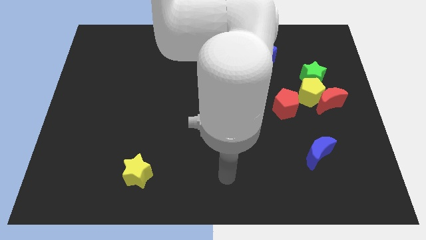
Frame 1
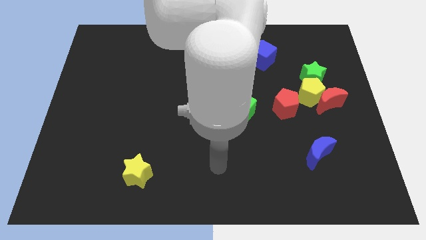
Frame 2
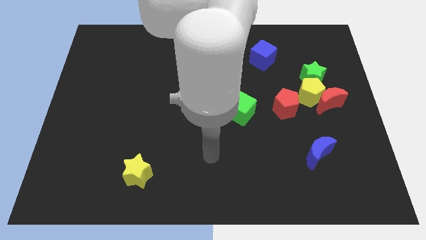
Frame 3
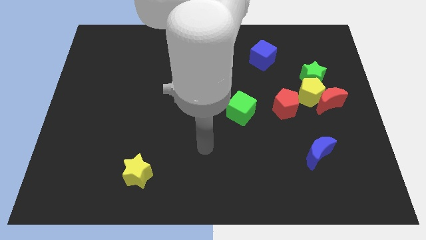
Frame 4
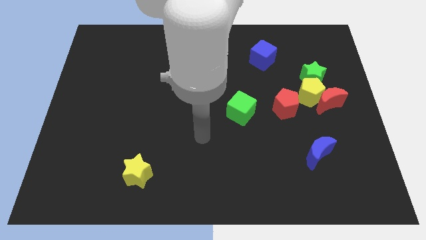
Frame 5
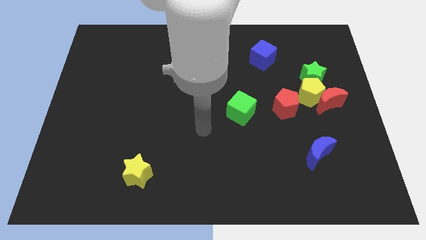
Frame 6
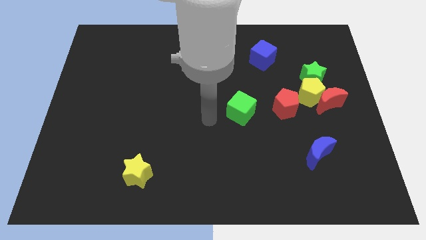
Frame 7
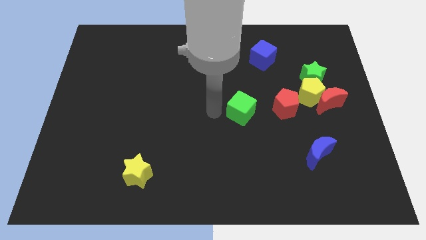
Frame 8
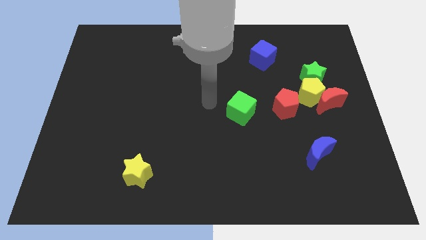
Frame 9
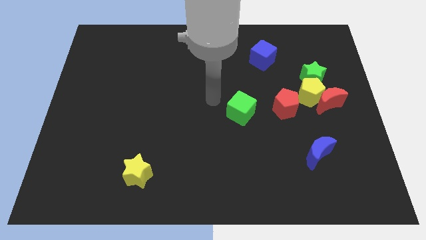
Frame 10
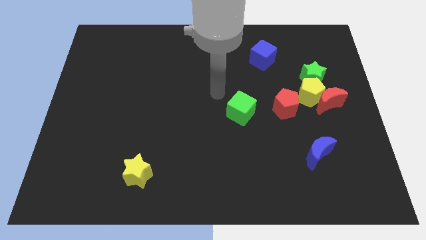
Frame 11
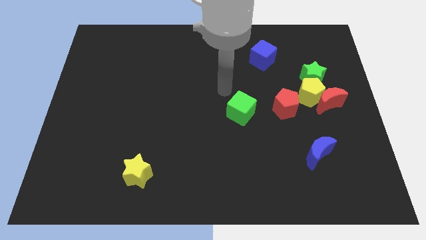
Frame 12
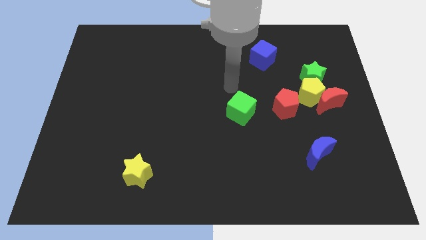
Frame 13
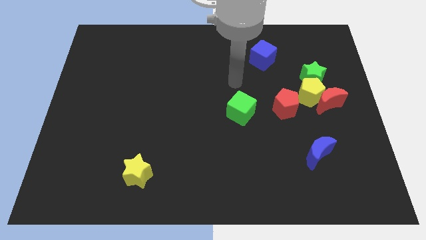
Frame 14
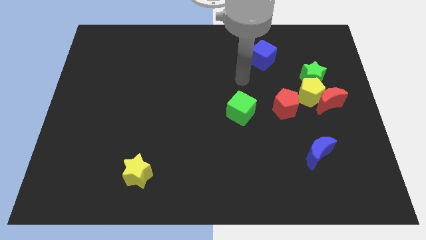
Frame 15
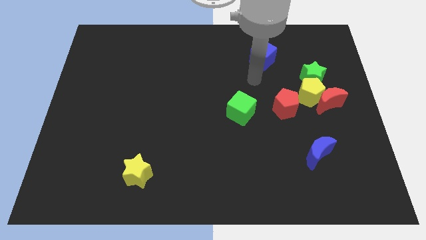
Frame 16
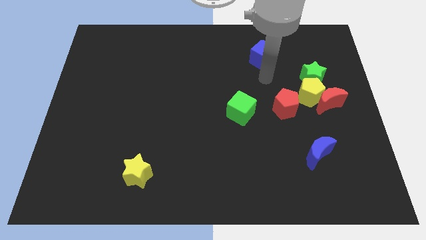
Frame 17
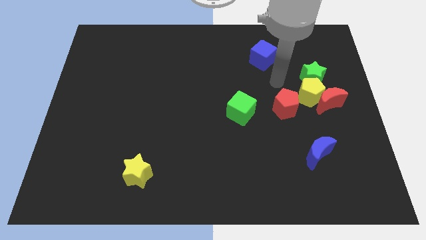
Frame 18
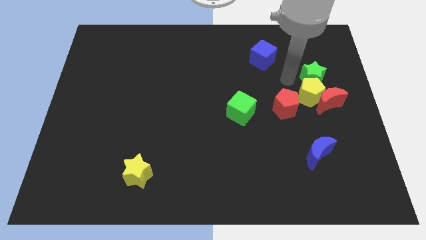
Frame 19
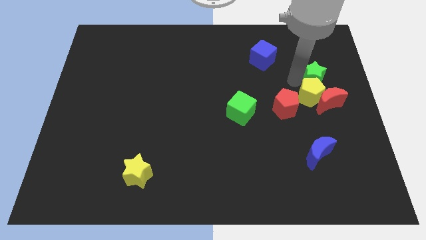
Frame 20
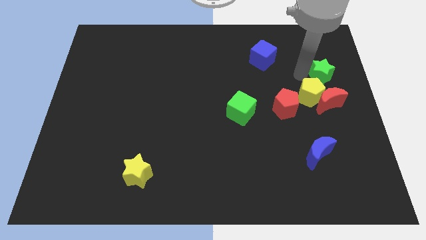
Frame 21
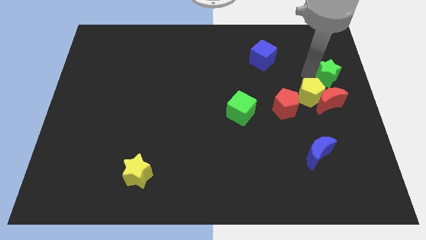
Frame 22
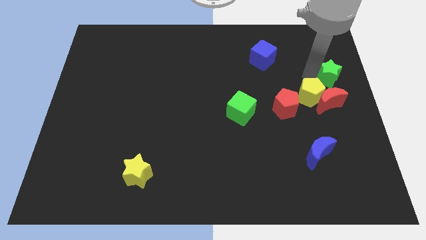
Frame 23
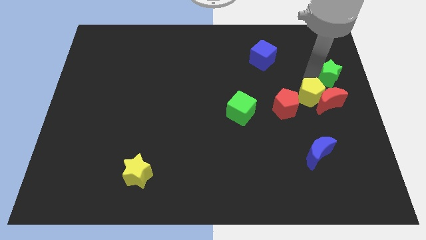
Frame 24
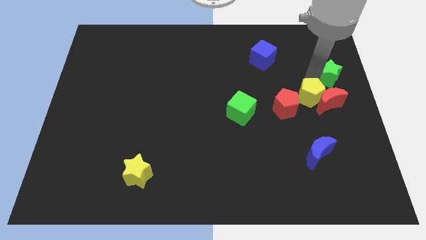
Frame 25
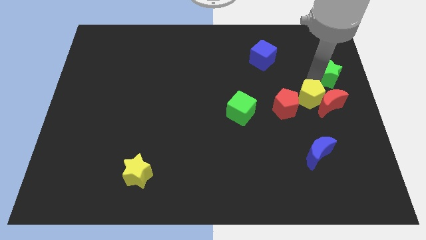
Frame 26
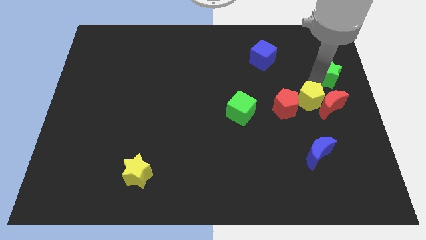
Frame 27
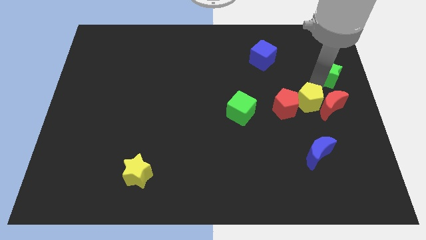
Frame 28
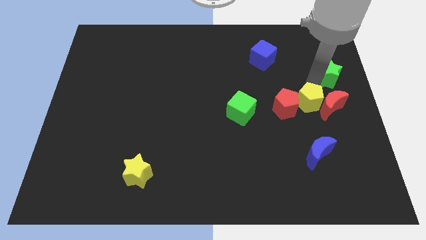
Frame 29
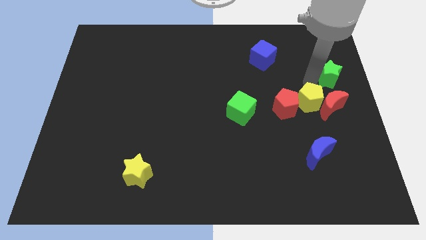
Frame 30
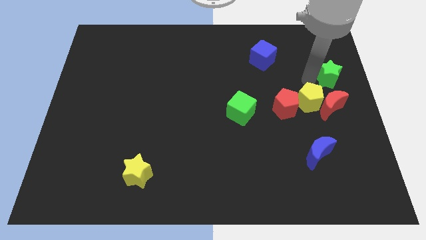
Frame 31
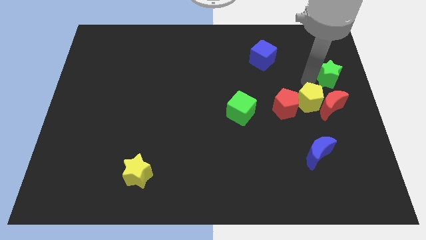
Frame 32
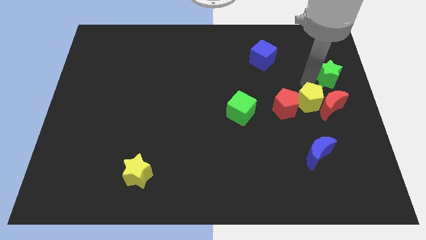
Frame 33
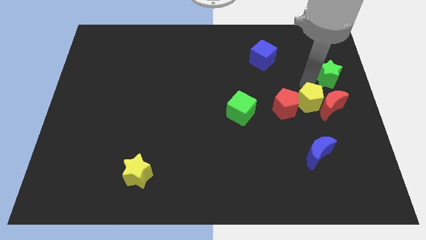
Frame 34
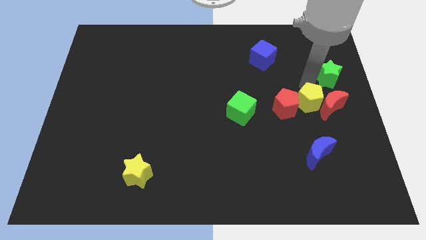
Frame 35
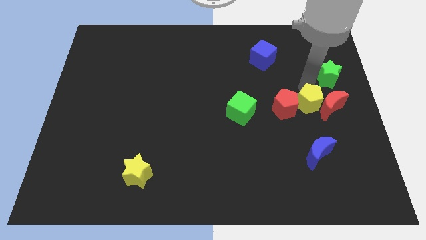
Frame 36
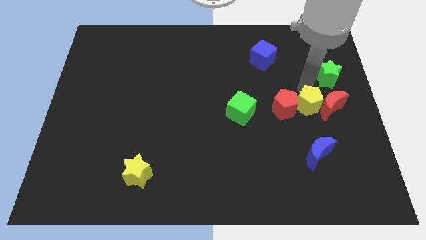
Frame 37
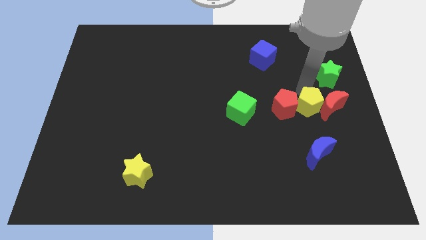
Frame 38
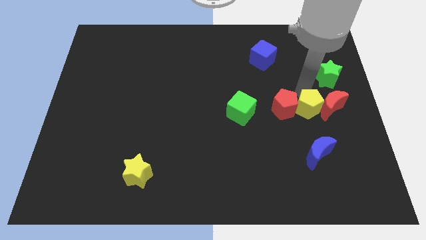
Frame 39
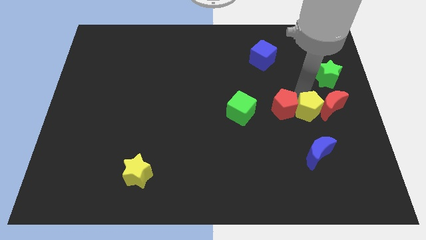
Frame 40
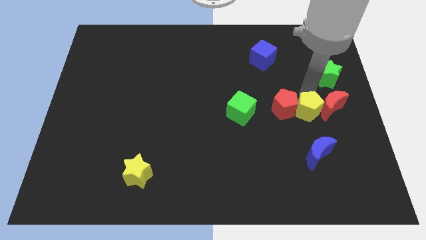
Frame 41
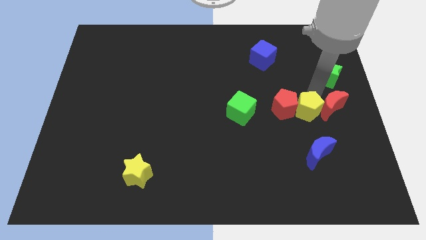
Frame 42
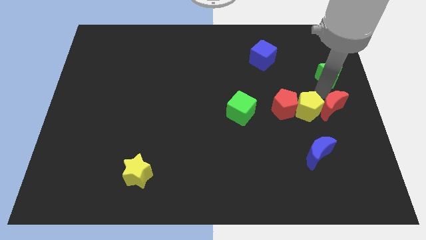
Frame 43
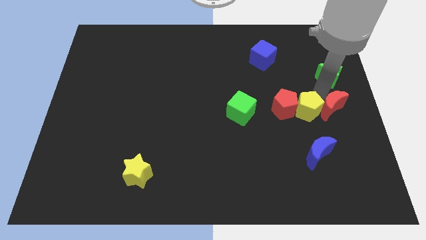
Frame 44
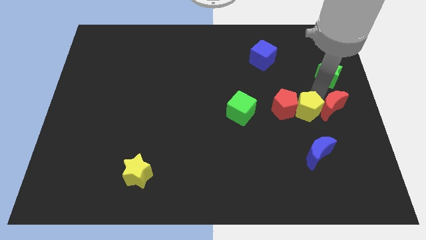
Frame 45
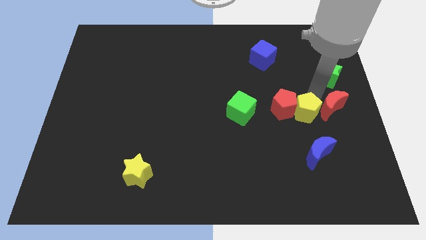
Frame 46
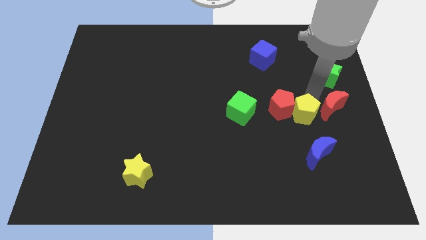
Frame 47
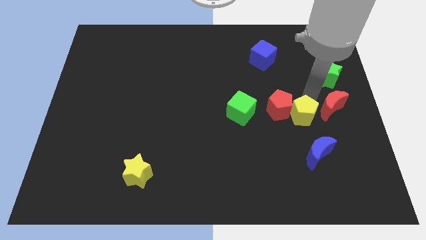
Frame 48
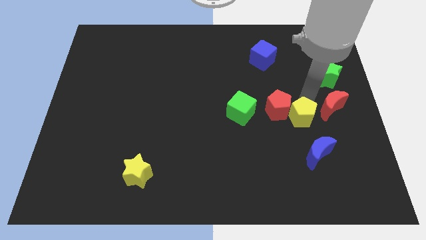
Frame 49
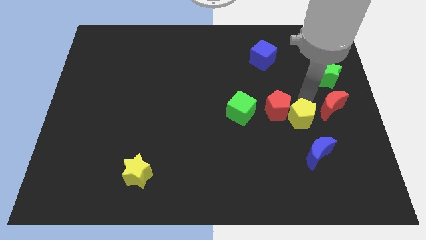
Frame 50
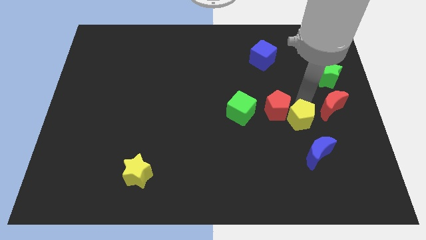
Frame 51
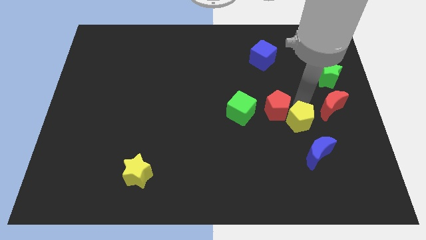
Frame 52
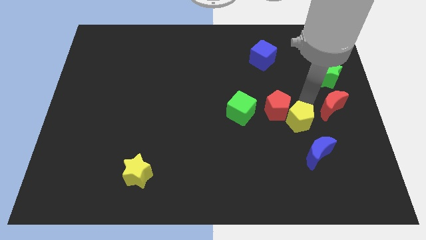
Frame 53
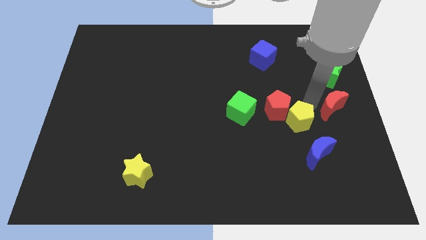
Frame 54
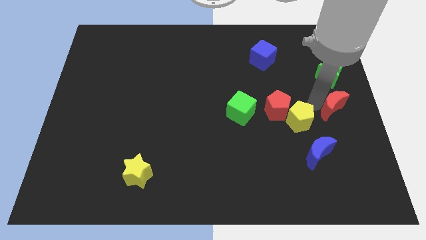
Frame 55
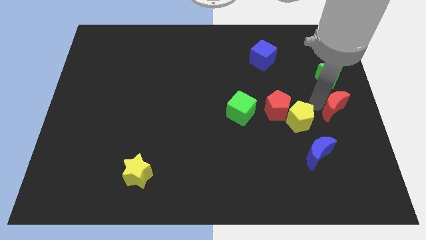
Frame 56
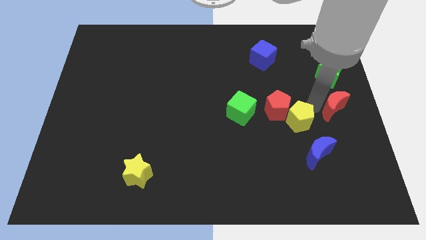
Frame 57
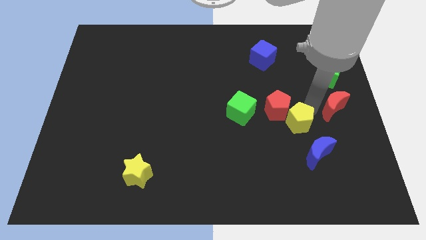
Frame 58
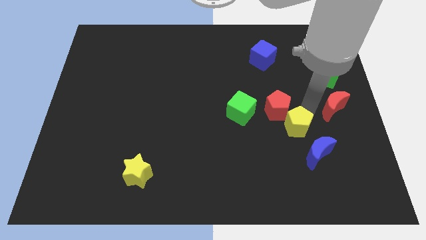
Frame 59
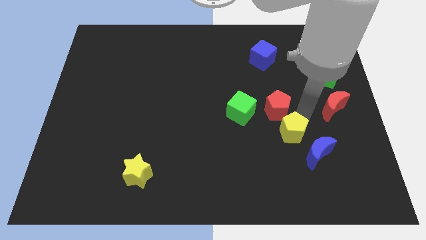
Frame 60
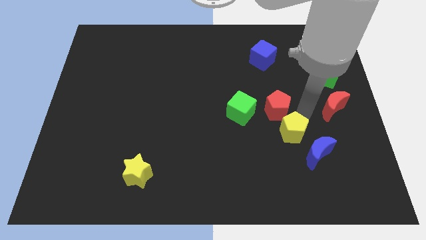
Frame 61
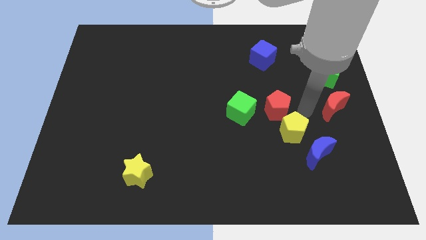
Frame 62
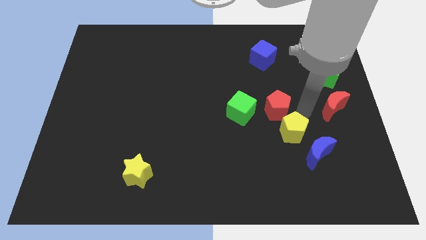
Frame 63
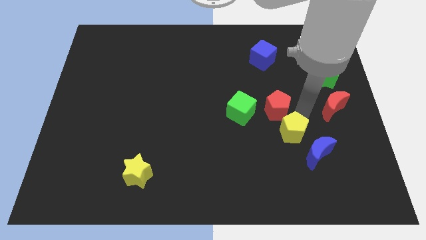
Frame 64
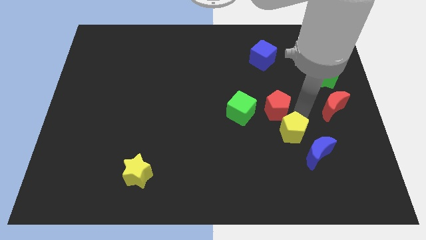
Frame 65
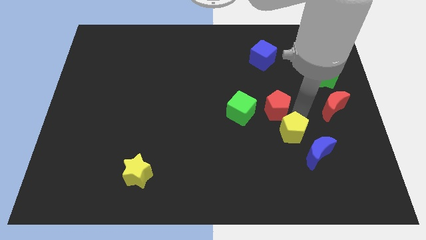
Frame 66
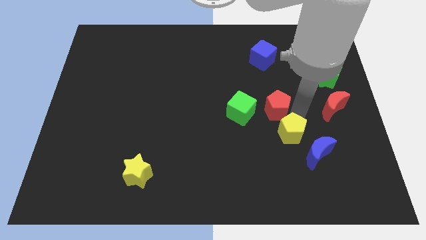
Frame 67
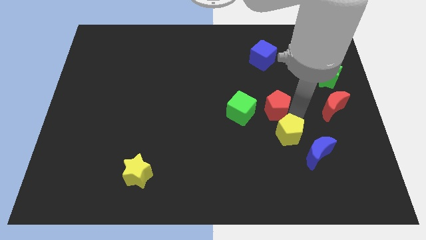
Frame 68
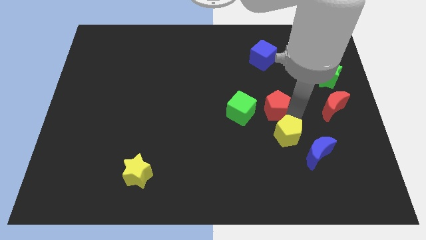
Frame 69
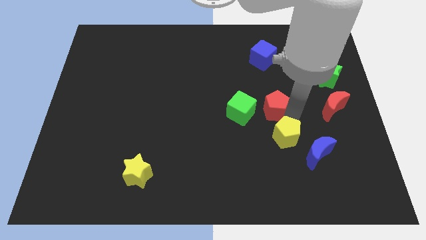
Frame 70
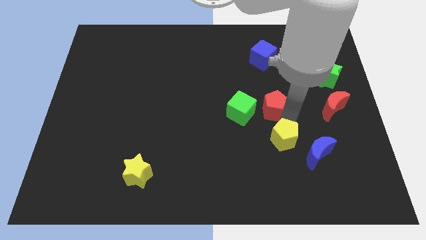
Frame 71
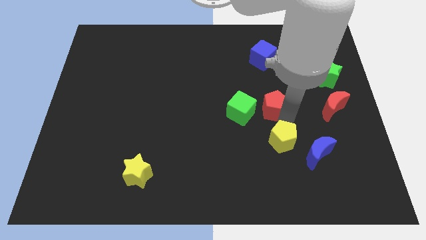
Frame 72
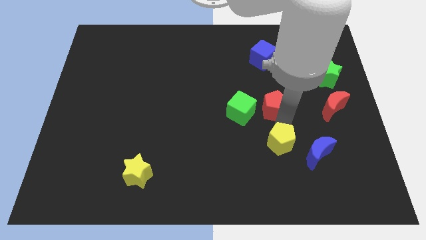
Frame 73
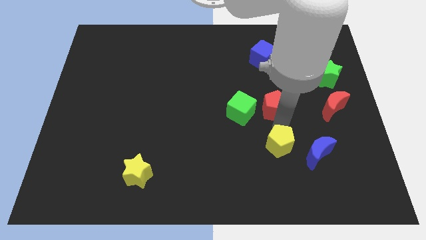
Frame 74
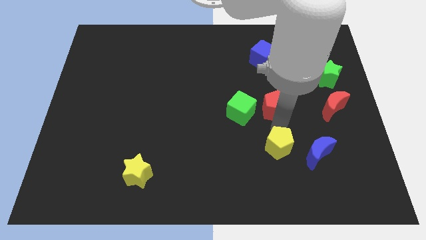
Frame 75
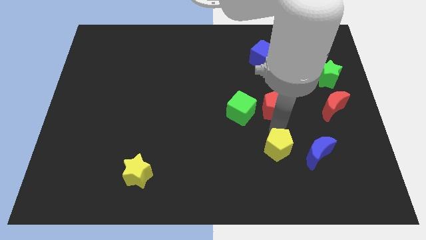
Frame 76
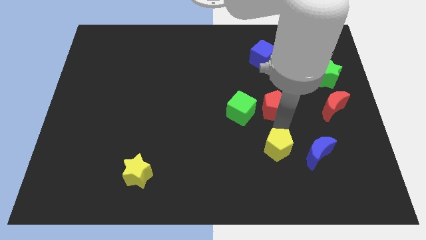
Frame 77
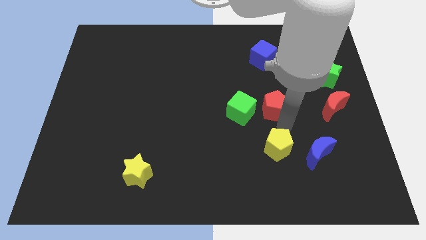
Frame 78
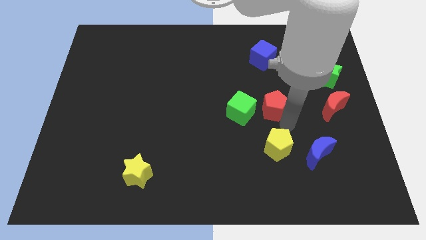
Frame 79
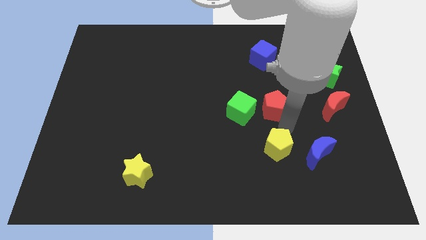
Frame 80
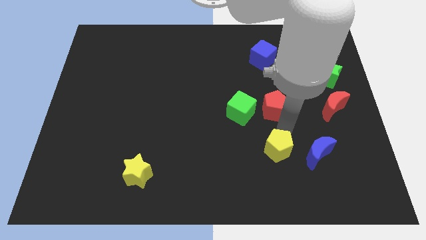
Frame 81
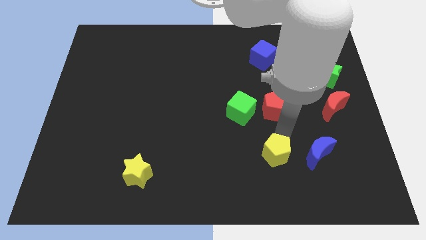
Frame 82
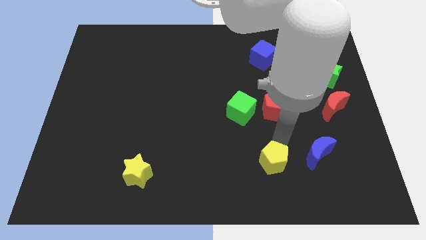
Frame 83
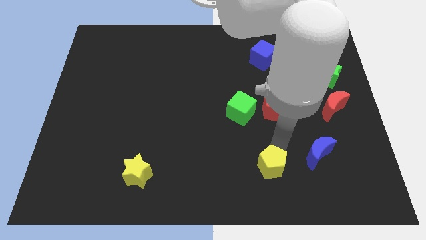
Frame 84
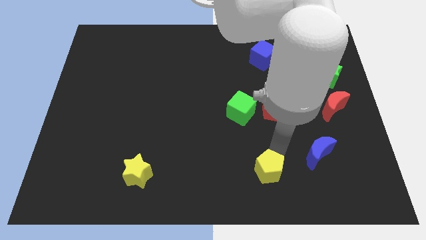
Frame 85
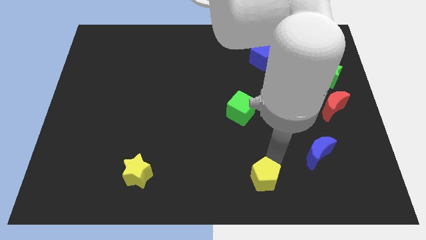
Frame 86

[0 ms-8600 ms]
slide the yellow pentagon to the bottom
